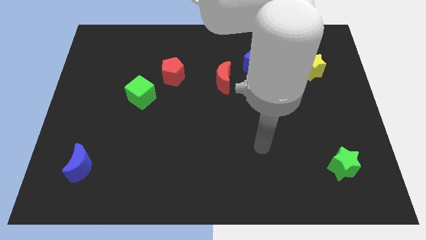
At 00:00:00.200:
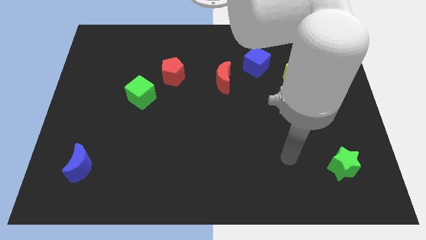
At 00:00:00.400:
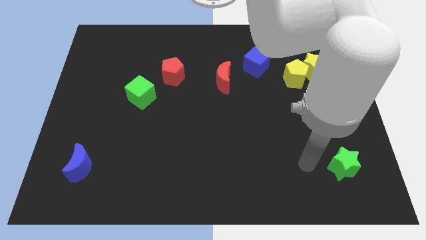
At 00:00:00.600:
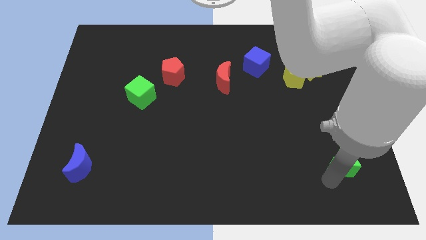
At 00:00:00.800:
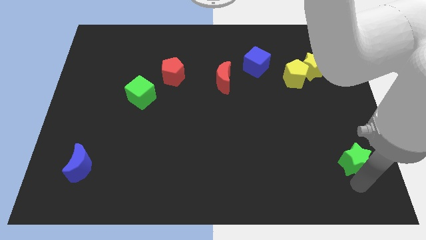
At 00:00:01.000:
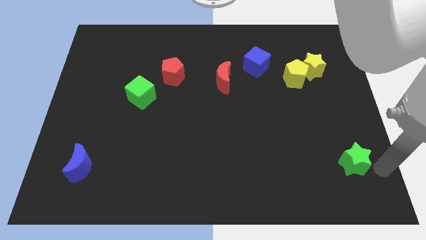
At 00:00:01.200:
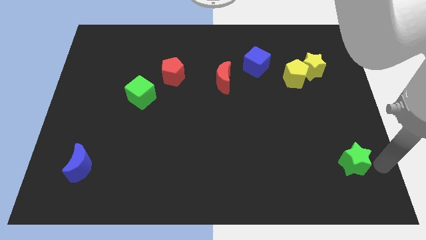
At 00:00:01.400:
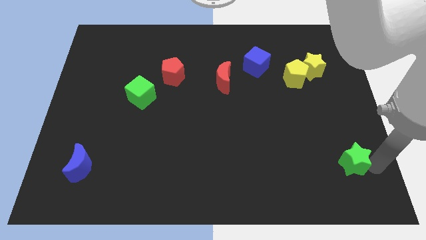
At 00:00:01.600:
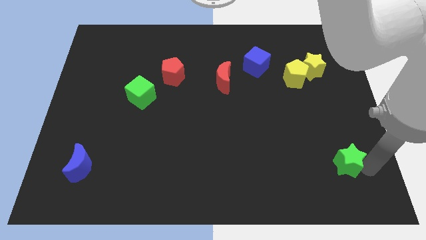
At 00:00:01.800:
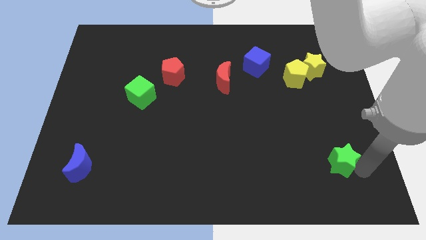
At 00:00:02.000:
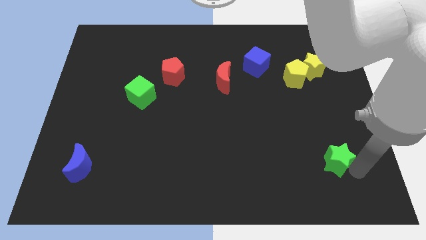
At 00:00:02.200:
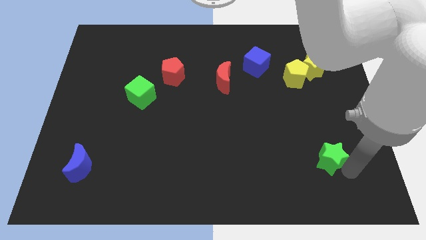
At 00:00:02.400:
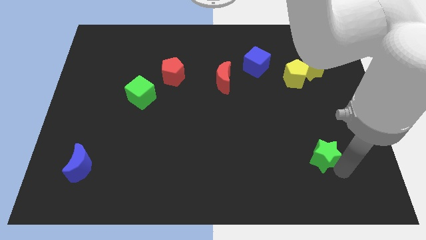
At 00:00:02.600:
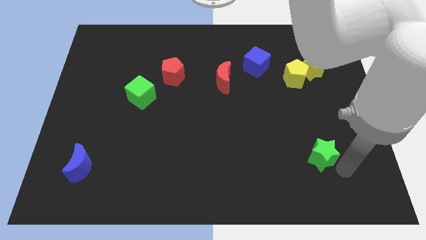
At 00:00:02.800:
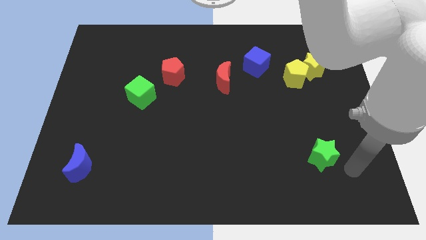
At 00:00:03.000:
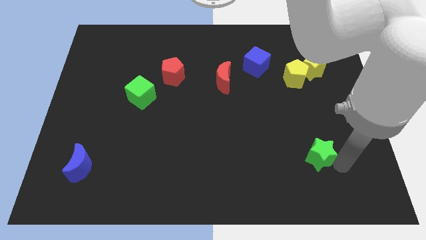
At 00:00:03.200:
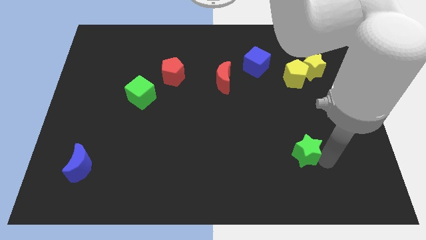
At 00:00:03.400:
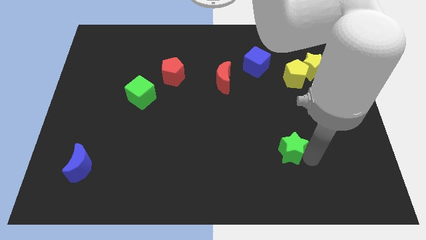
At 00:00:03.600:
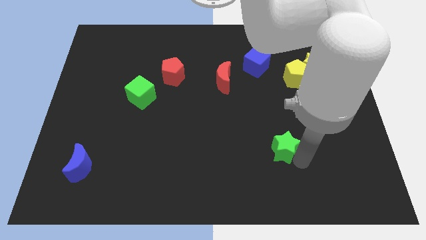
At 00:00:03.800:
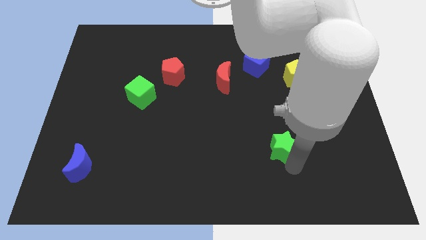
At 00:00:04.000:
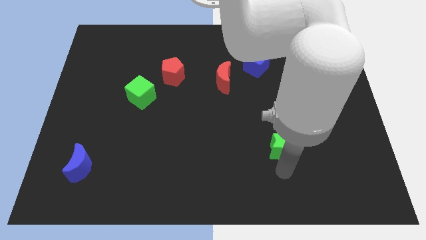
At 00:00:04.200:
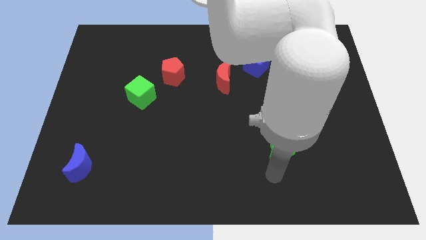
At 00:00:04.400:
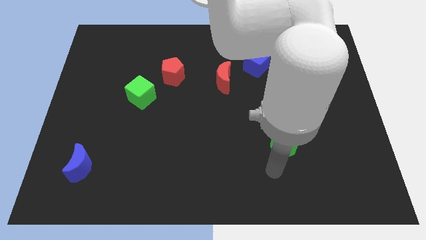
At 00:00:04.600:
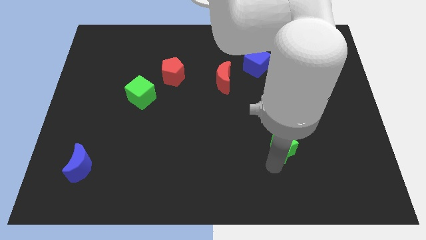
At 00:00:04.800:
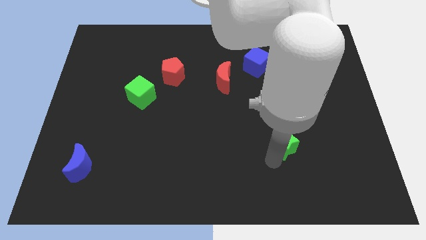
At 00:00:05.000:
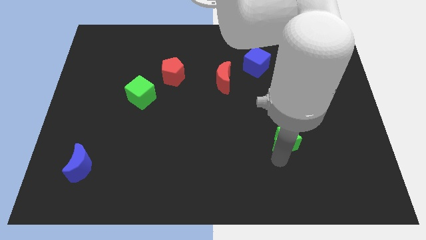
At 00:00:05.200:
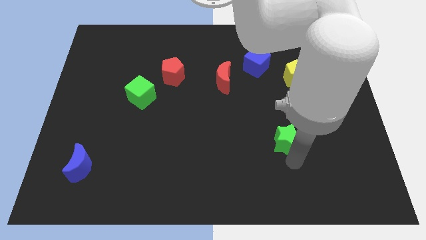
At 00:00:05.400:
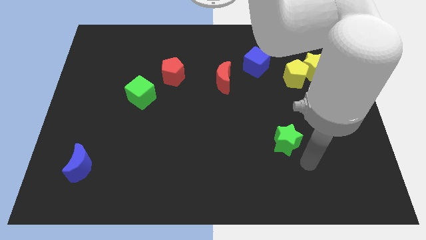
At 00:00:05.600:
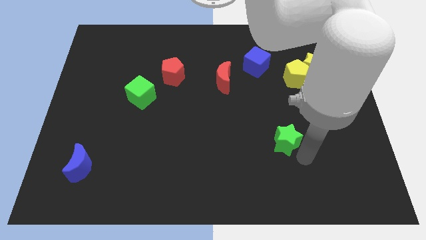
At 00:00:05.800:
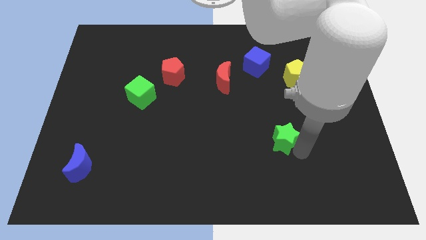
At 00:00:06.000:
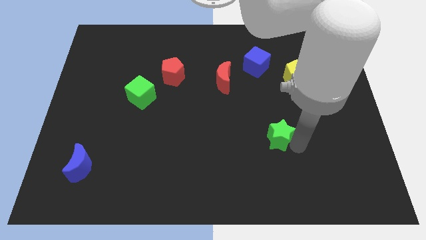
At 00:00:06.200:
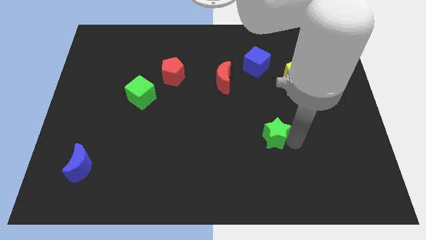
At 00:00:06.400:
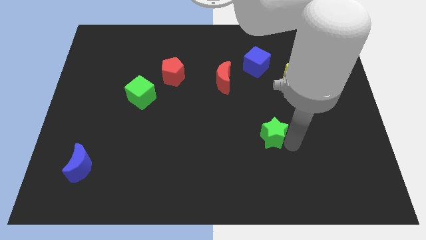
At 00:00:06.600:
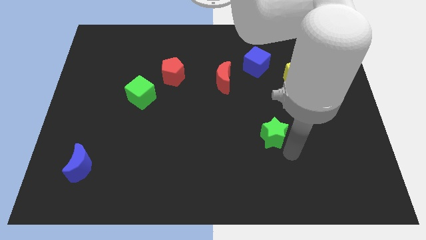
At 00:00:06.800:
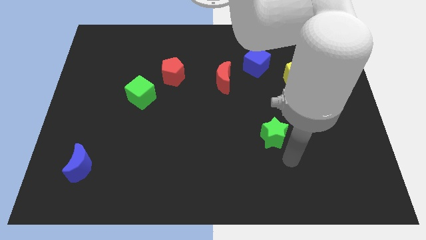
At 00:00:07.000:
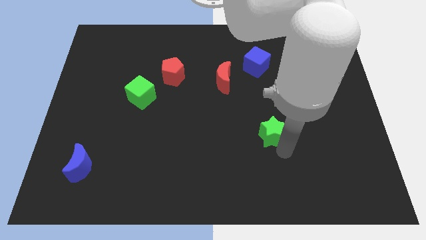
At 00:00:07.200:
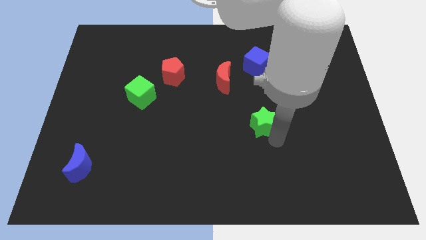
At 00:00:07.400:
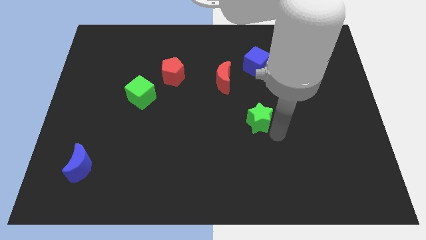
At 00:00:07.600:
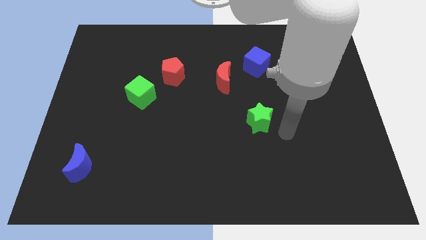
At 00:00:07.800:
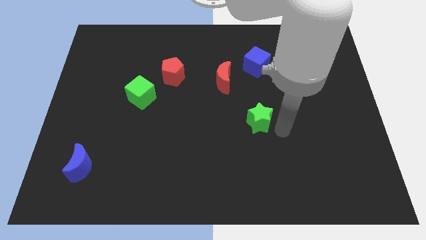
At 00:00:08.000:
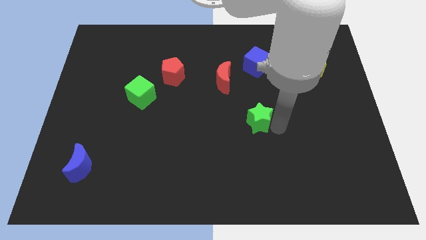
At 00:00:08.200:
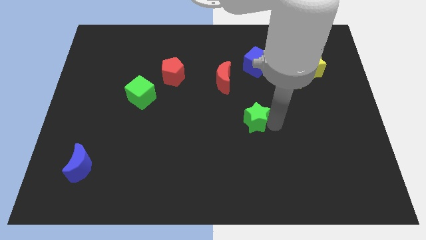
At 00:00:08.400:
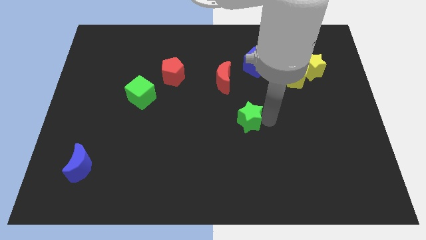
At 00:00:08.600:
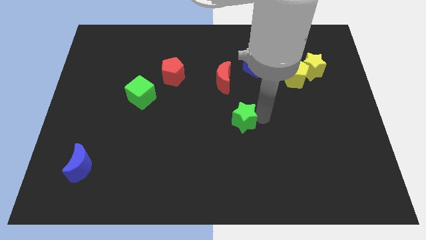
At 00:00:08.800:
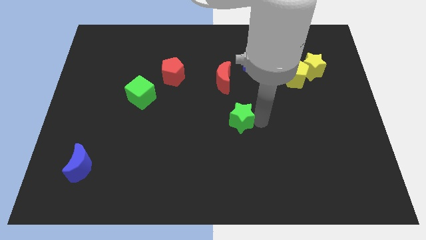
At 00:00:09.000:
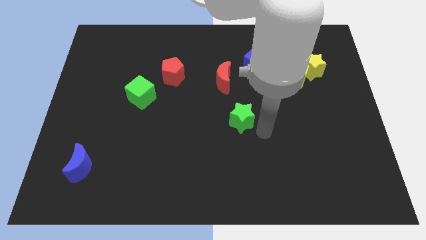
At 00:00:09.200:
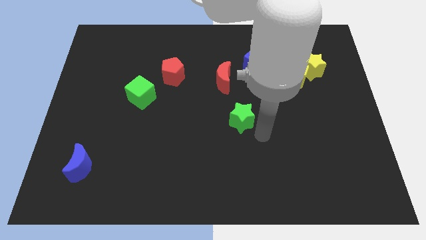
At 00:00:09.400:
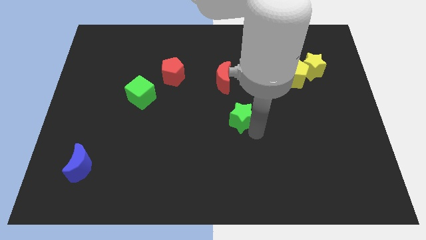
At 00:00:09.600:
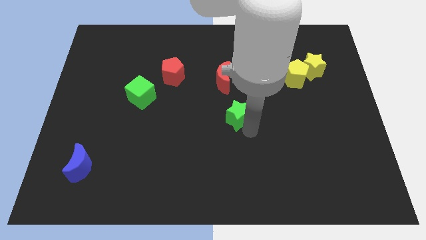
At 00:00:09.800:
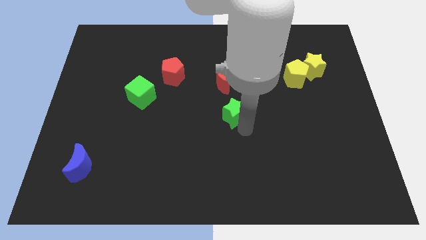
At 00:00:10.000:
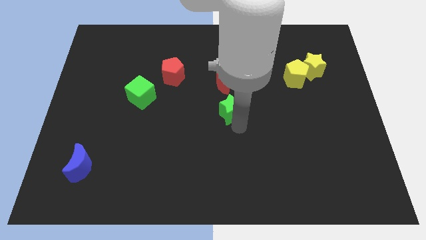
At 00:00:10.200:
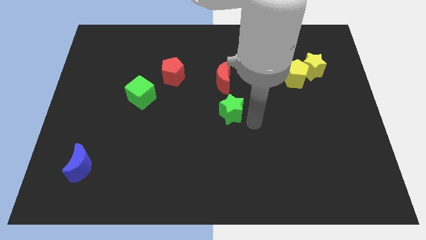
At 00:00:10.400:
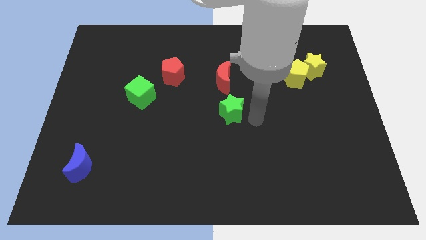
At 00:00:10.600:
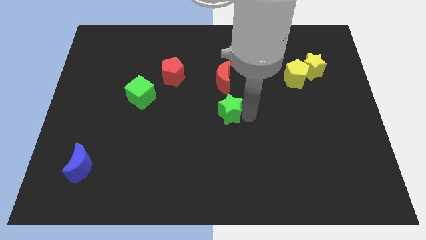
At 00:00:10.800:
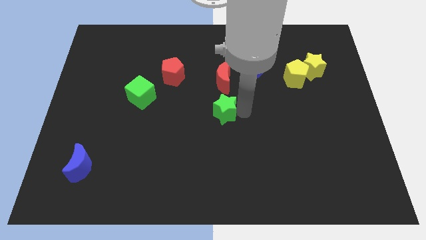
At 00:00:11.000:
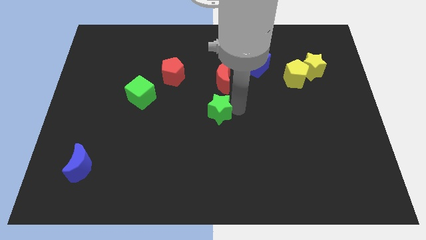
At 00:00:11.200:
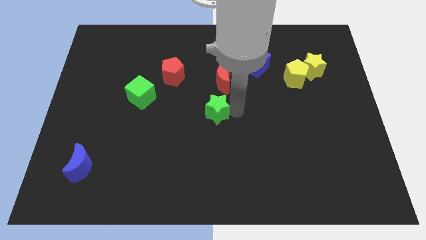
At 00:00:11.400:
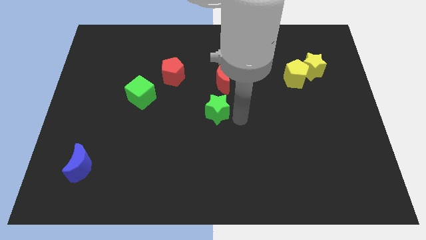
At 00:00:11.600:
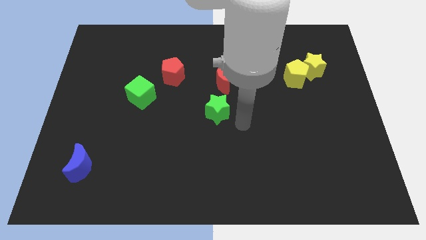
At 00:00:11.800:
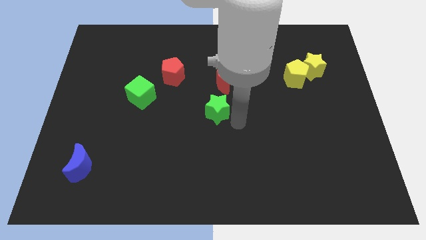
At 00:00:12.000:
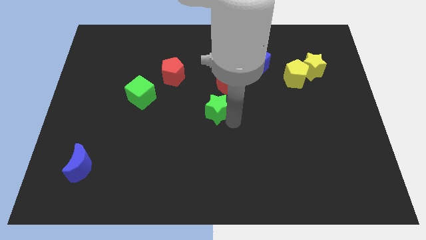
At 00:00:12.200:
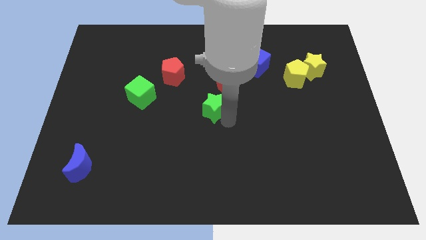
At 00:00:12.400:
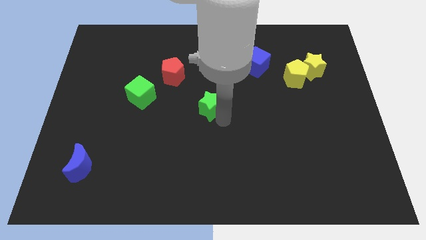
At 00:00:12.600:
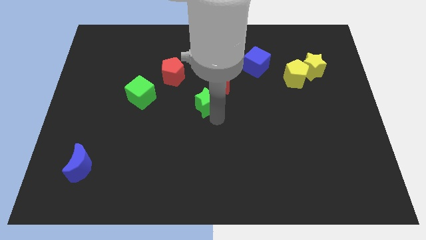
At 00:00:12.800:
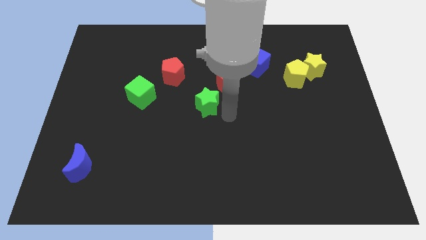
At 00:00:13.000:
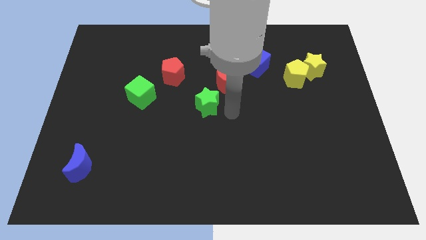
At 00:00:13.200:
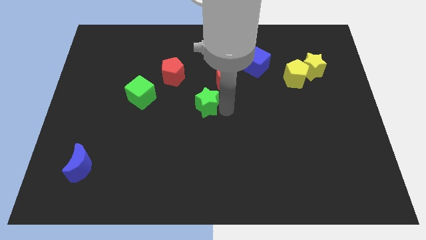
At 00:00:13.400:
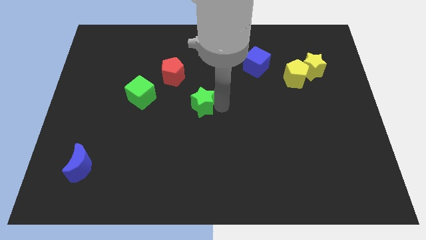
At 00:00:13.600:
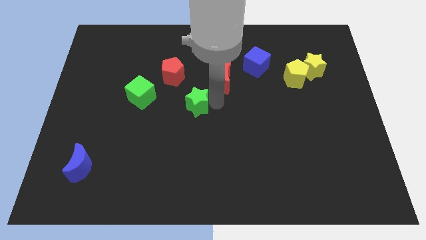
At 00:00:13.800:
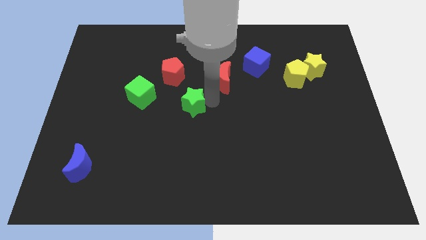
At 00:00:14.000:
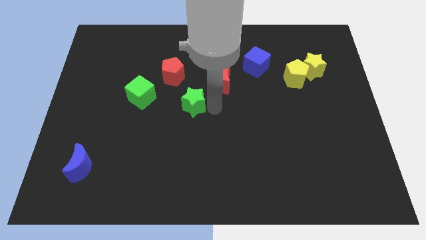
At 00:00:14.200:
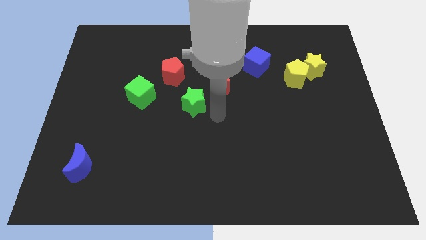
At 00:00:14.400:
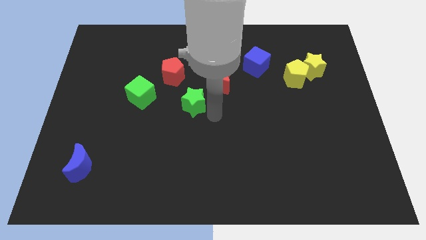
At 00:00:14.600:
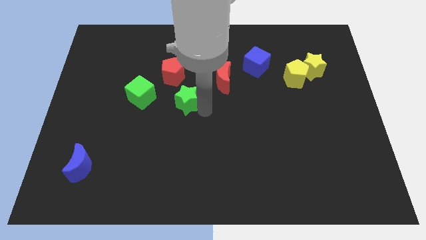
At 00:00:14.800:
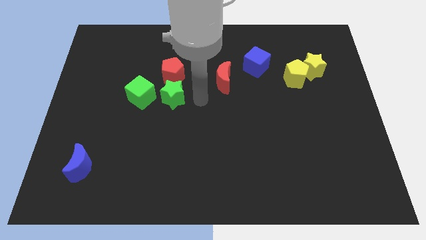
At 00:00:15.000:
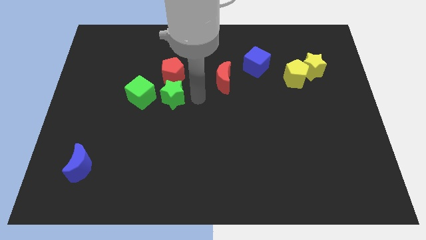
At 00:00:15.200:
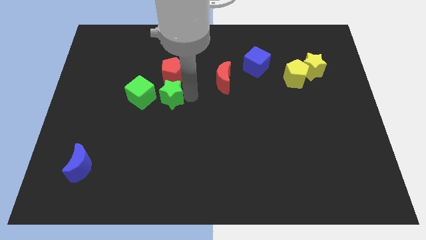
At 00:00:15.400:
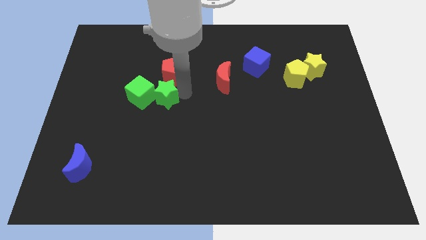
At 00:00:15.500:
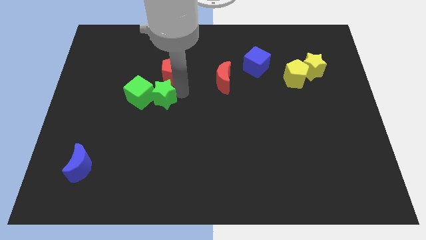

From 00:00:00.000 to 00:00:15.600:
put the green star towards the green cube

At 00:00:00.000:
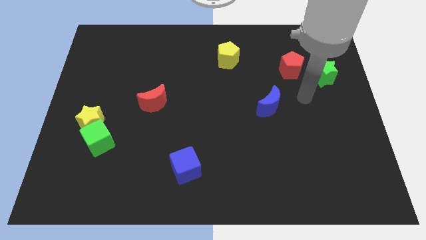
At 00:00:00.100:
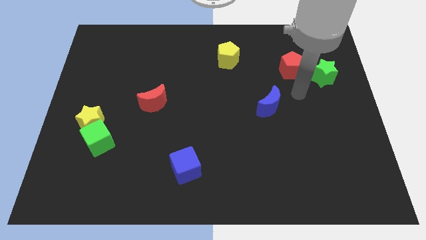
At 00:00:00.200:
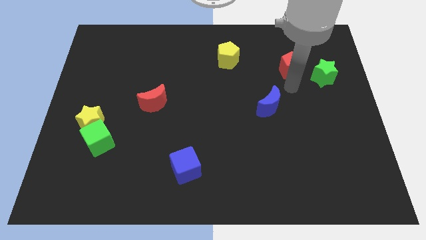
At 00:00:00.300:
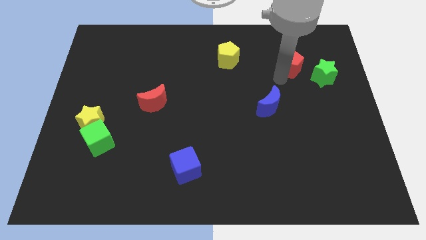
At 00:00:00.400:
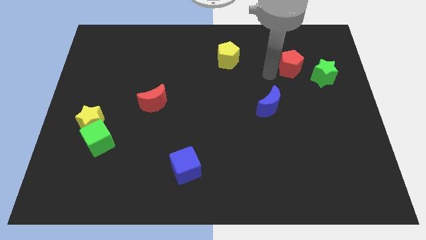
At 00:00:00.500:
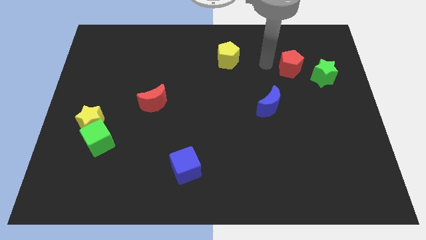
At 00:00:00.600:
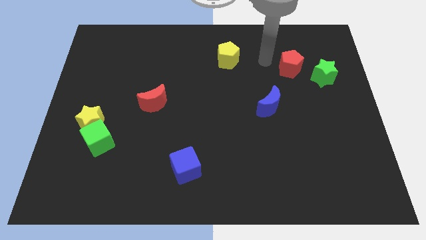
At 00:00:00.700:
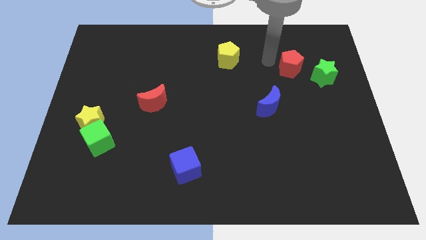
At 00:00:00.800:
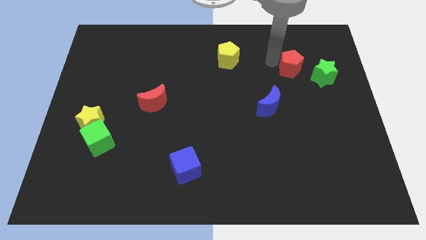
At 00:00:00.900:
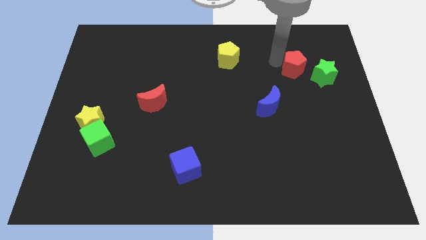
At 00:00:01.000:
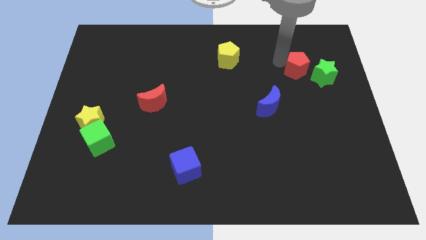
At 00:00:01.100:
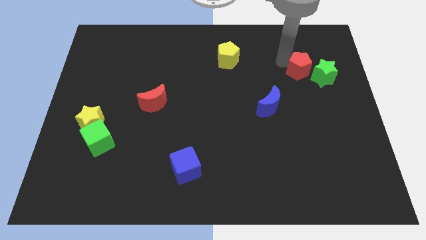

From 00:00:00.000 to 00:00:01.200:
put the red pentagon towards the green star
